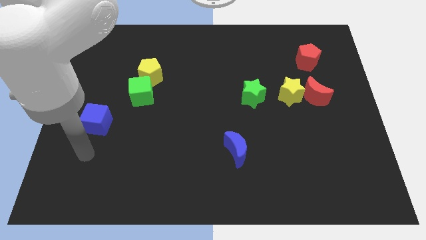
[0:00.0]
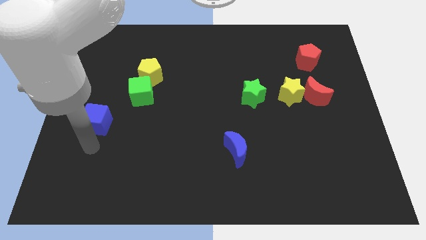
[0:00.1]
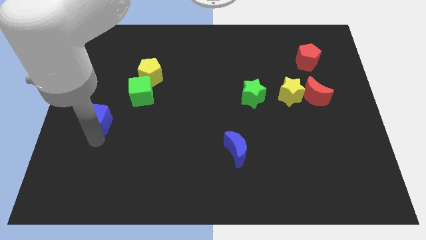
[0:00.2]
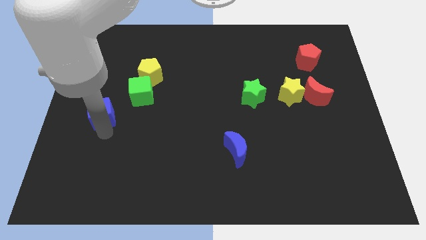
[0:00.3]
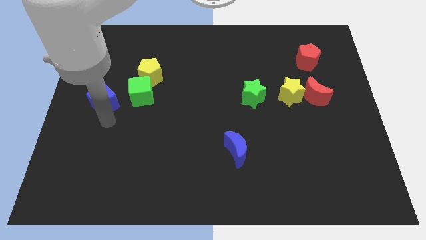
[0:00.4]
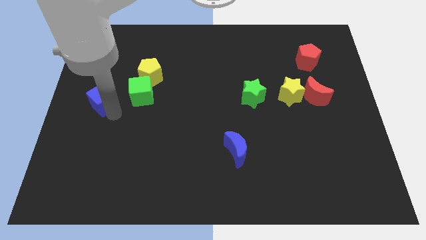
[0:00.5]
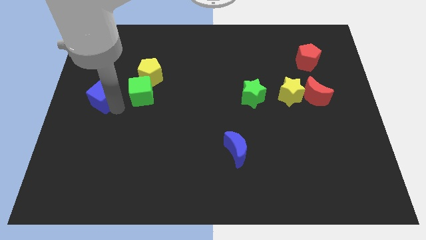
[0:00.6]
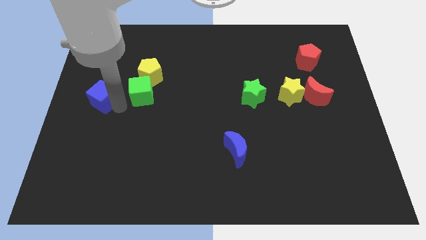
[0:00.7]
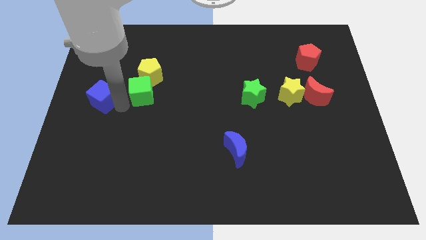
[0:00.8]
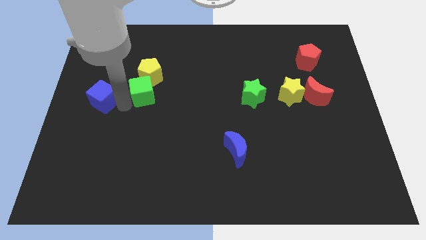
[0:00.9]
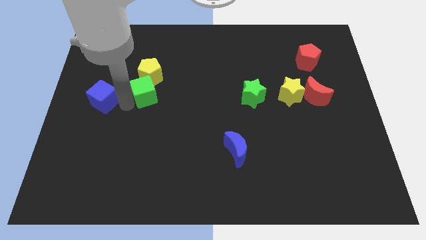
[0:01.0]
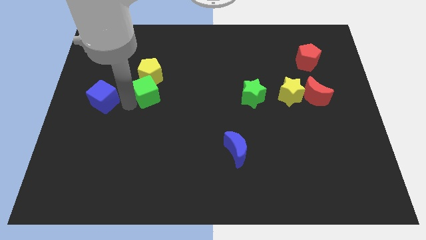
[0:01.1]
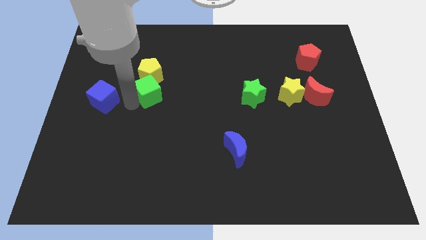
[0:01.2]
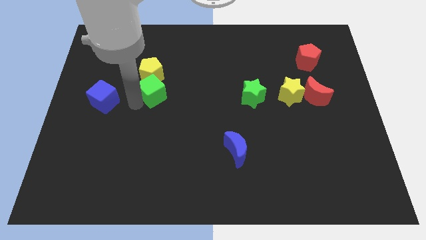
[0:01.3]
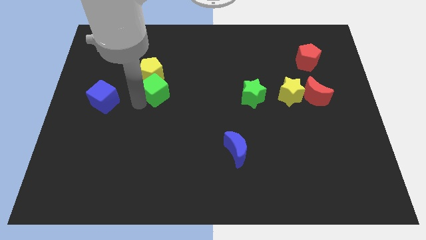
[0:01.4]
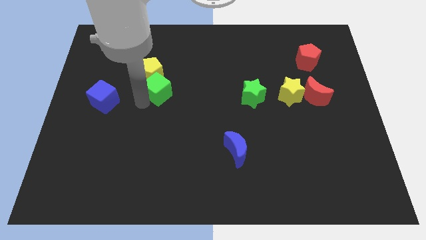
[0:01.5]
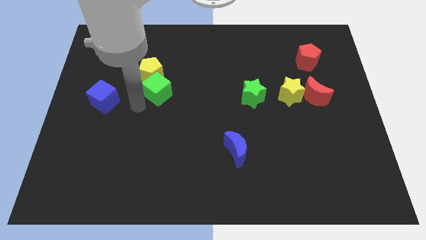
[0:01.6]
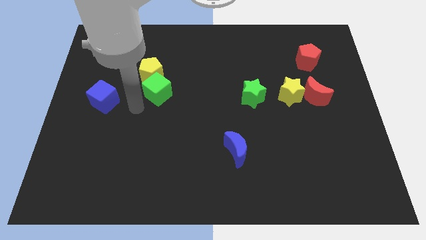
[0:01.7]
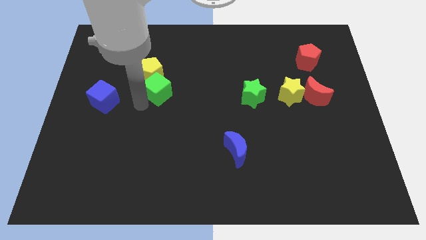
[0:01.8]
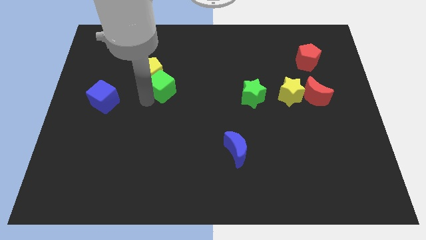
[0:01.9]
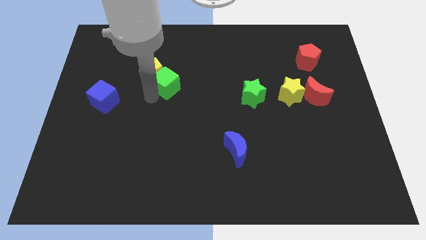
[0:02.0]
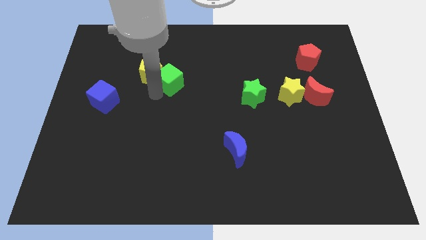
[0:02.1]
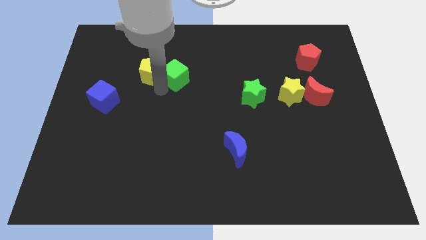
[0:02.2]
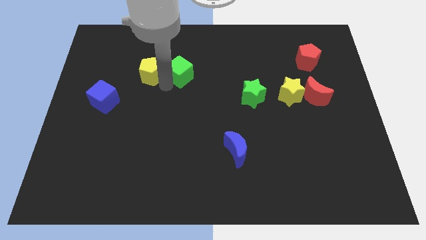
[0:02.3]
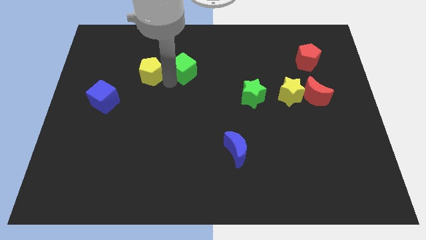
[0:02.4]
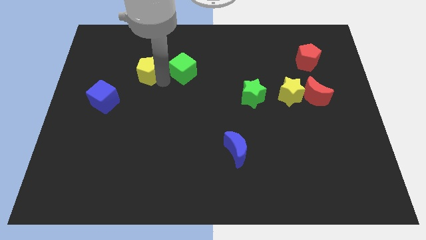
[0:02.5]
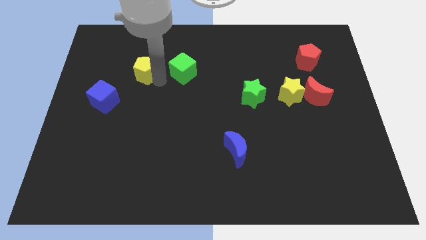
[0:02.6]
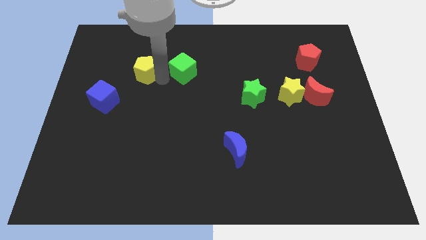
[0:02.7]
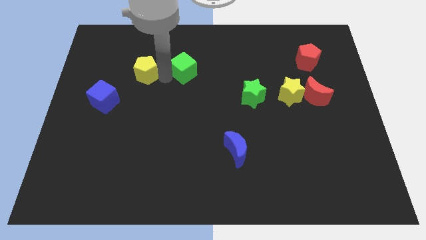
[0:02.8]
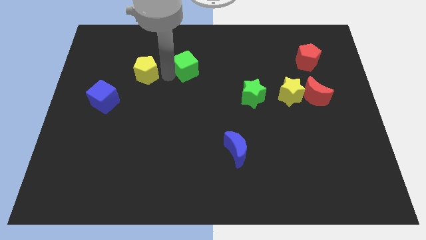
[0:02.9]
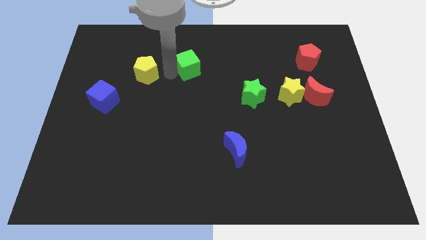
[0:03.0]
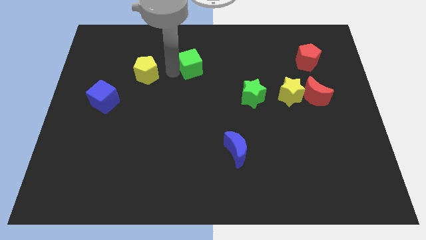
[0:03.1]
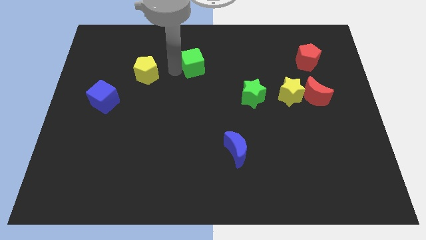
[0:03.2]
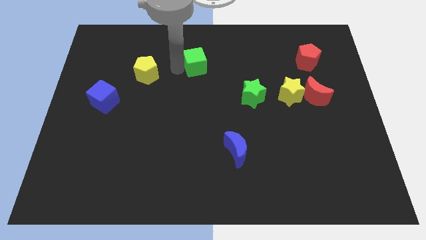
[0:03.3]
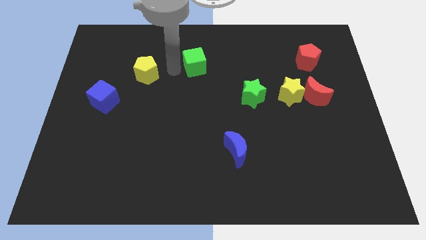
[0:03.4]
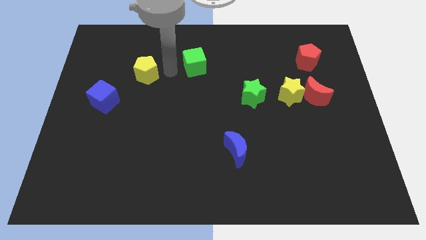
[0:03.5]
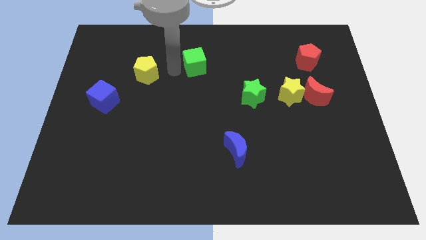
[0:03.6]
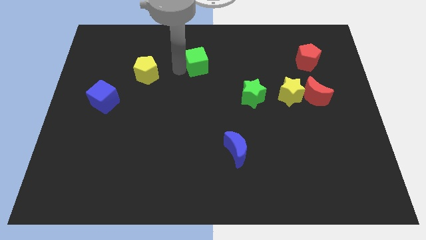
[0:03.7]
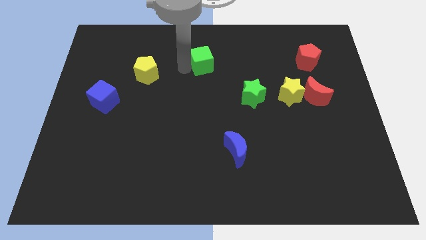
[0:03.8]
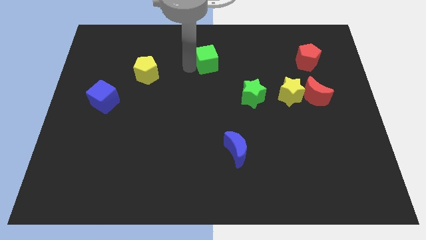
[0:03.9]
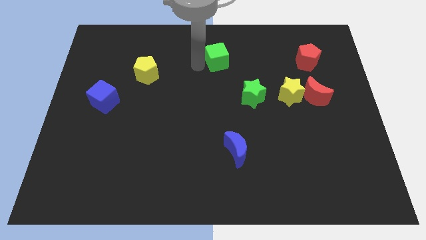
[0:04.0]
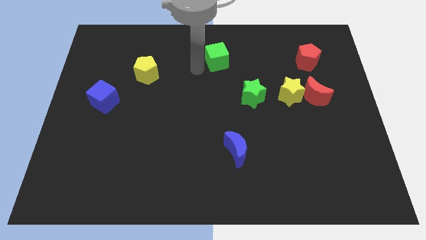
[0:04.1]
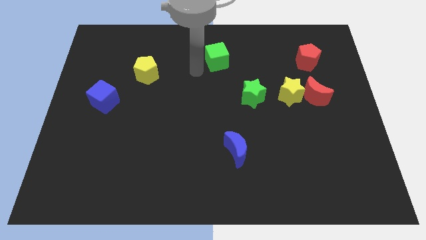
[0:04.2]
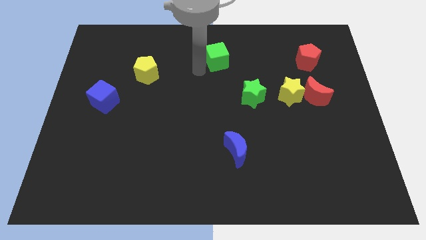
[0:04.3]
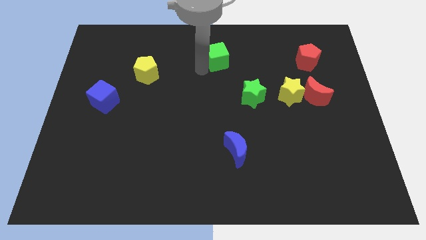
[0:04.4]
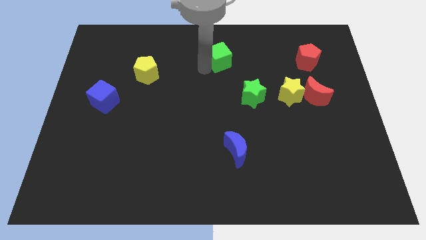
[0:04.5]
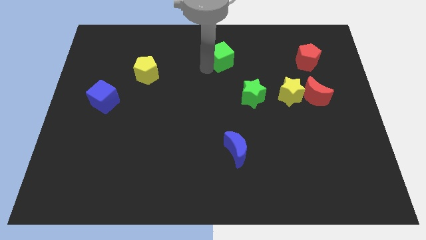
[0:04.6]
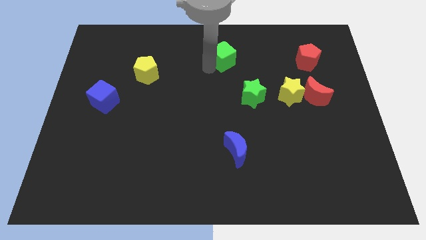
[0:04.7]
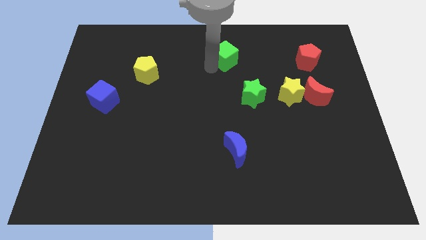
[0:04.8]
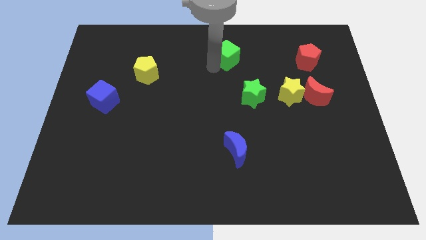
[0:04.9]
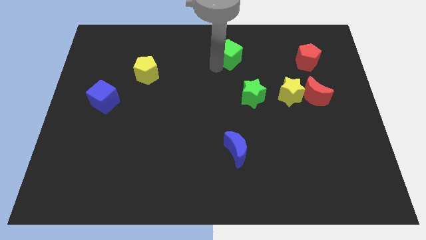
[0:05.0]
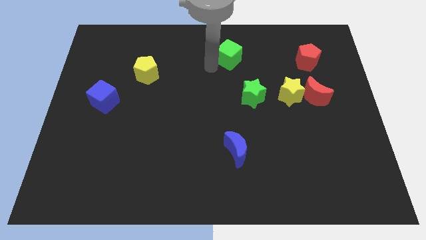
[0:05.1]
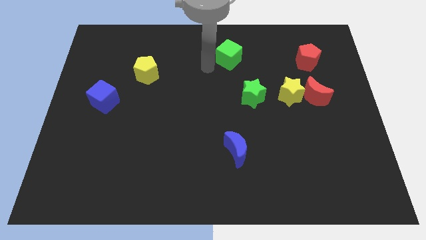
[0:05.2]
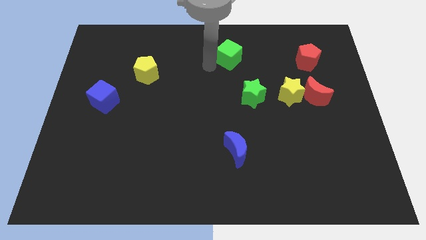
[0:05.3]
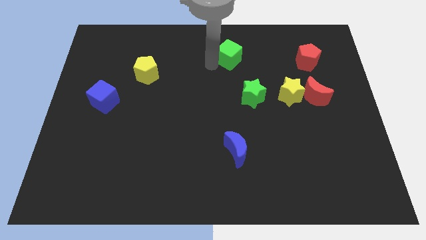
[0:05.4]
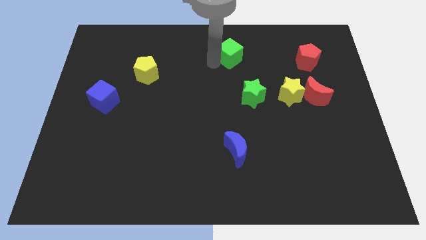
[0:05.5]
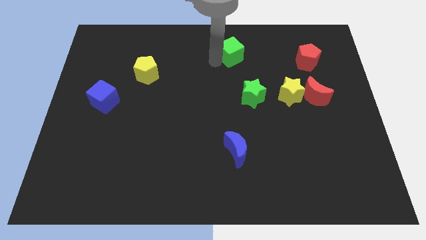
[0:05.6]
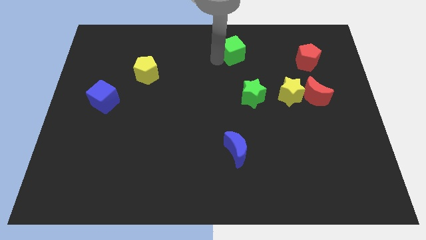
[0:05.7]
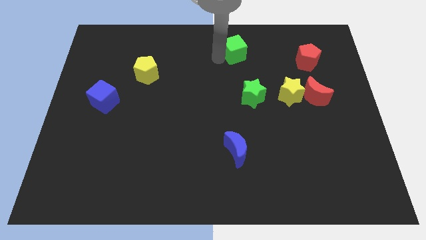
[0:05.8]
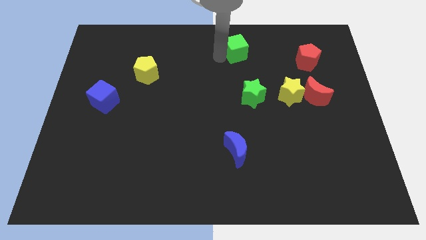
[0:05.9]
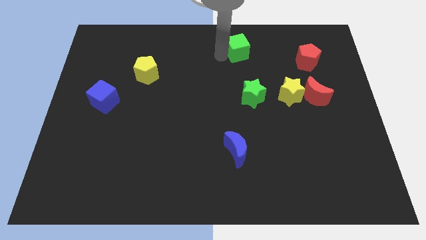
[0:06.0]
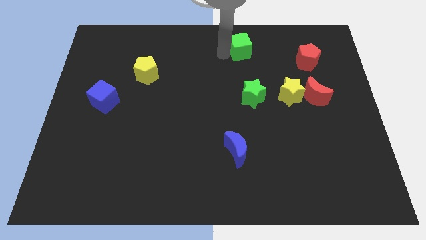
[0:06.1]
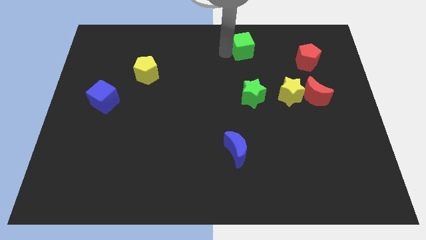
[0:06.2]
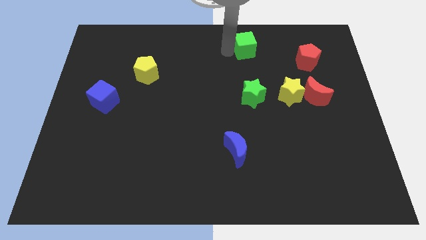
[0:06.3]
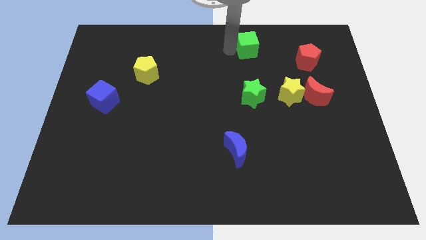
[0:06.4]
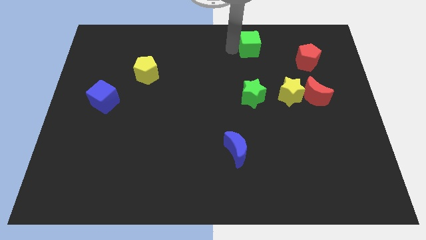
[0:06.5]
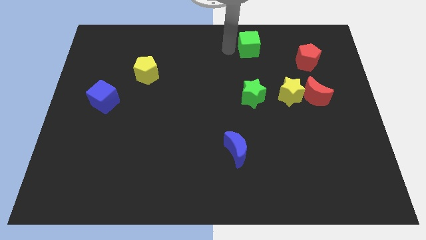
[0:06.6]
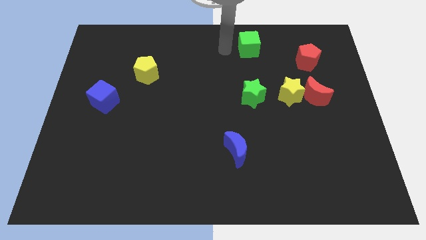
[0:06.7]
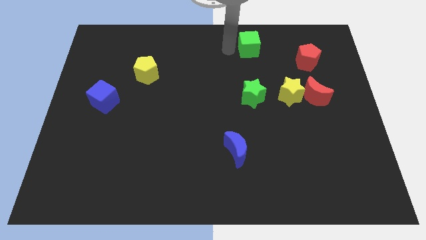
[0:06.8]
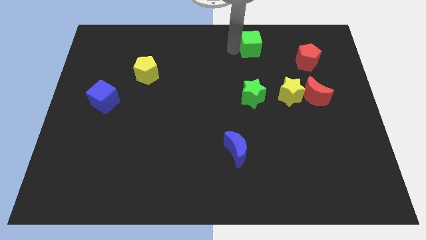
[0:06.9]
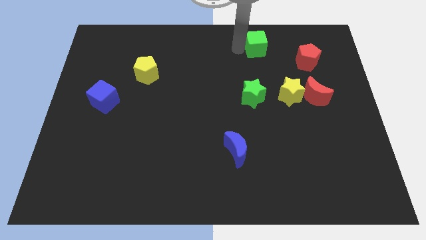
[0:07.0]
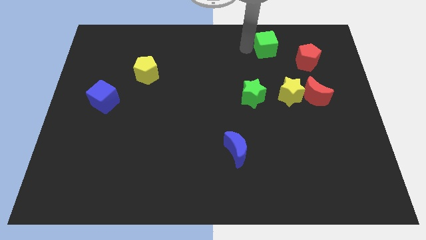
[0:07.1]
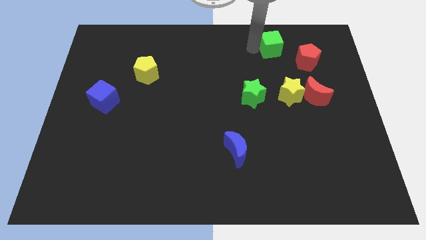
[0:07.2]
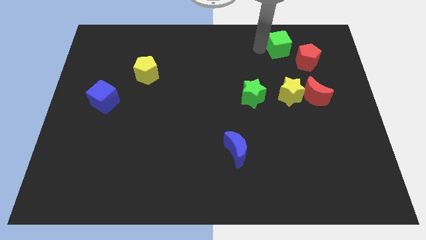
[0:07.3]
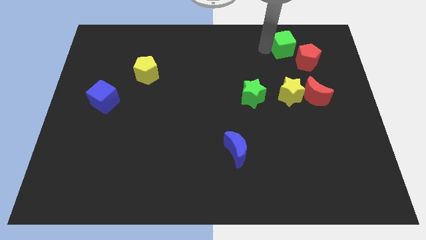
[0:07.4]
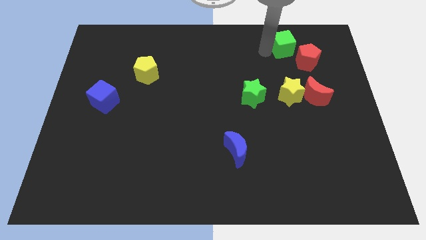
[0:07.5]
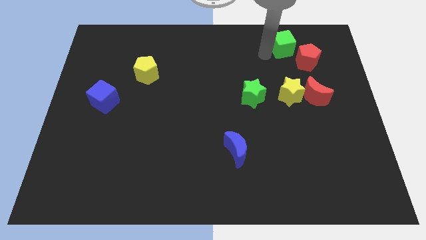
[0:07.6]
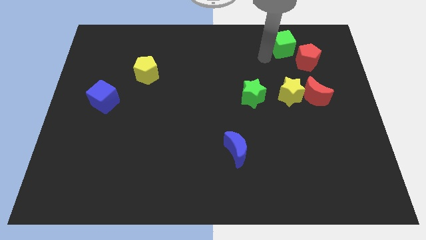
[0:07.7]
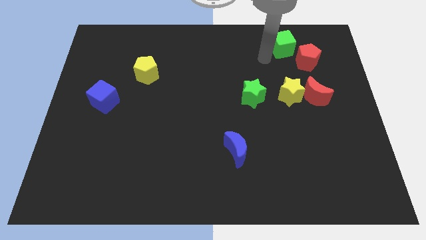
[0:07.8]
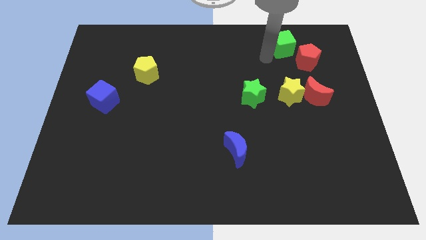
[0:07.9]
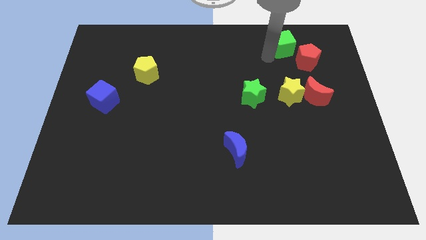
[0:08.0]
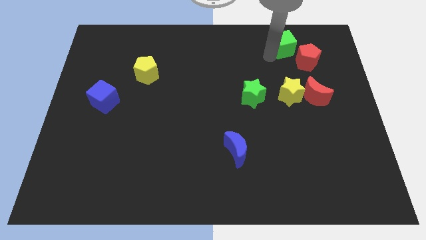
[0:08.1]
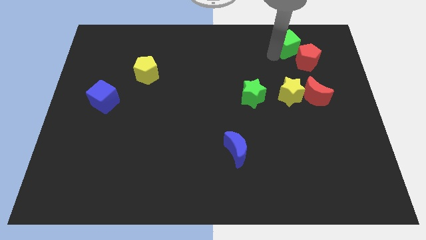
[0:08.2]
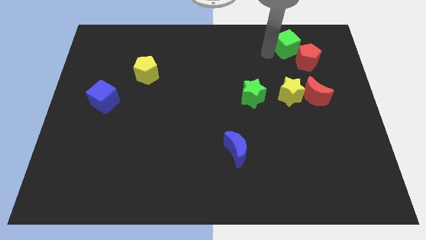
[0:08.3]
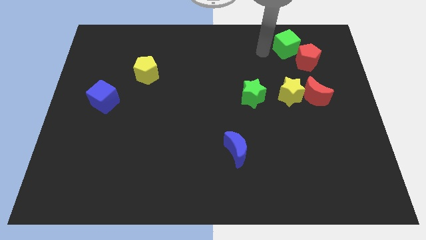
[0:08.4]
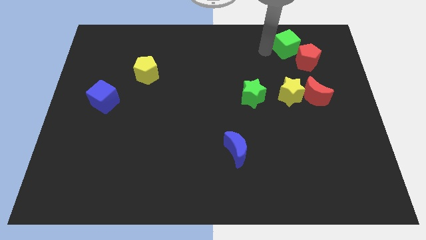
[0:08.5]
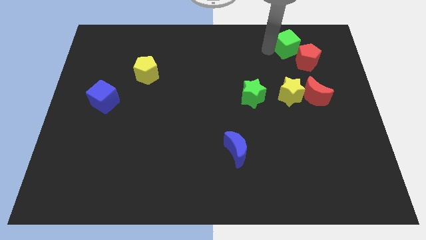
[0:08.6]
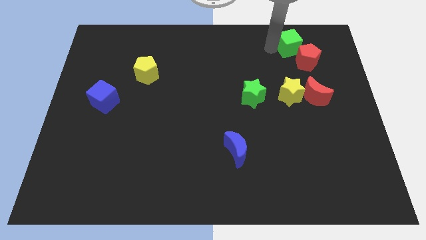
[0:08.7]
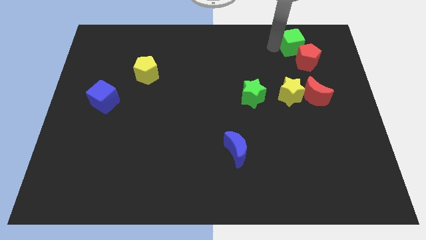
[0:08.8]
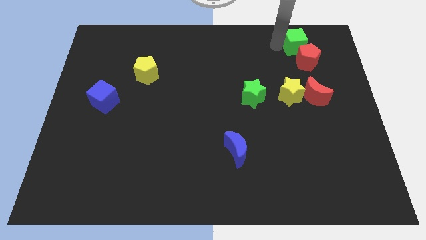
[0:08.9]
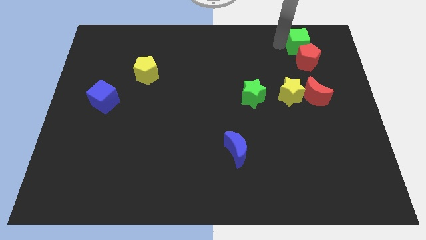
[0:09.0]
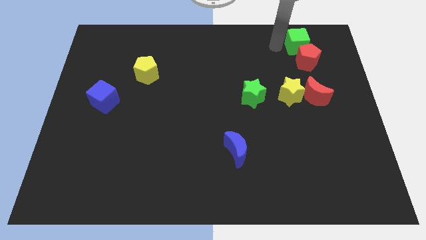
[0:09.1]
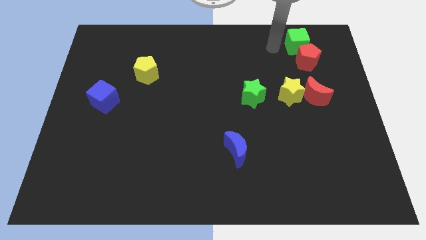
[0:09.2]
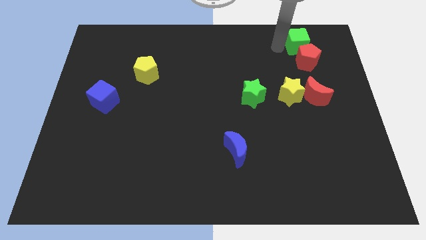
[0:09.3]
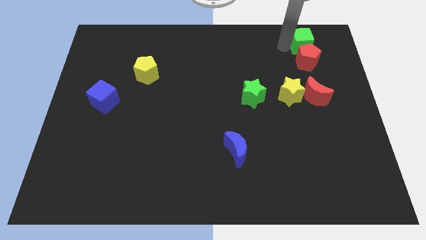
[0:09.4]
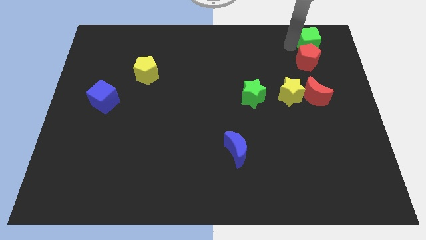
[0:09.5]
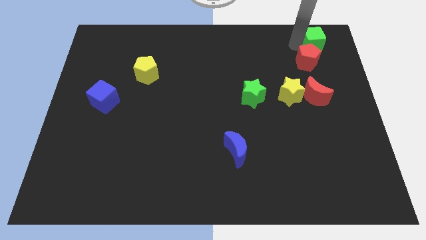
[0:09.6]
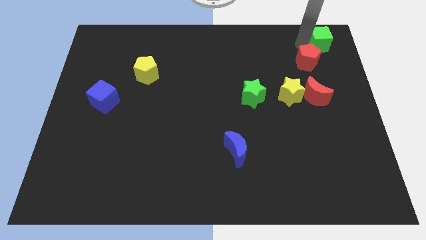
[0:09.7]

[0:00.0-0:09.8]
slide the green cube to the upper right corner
